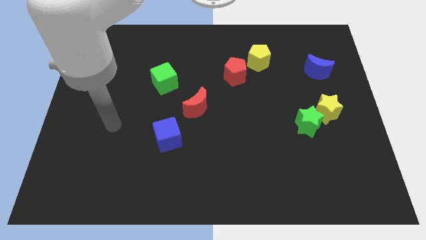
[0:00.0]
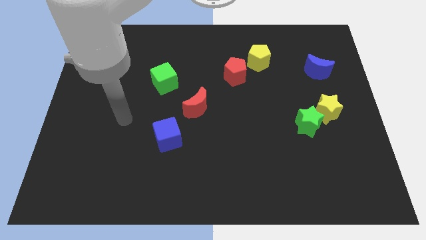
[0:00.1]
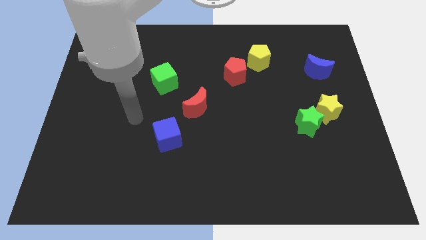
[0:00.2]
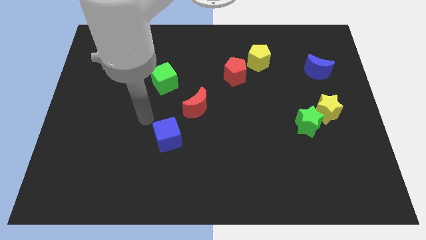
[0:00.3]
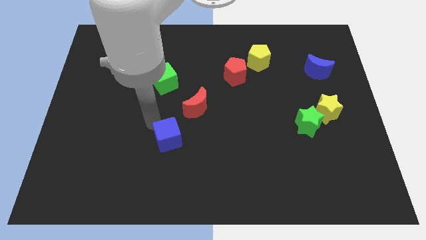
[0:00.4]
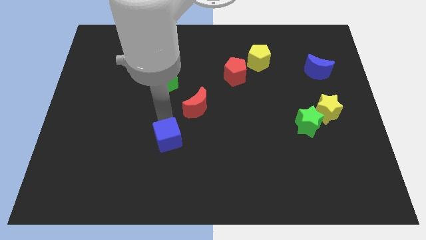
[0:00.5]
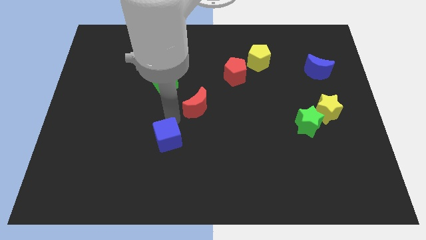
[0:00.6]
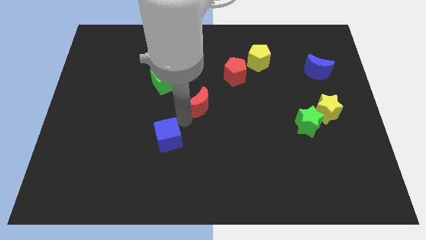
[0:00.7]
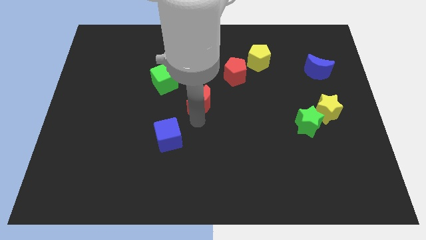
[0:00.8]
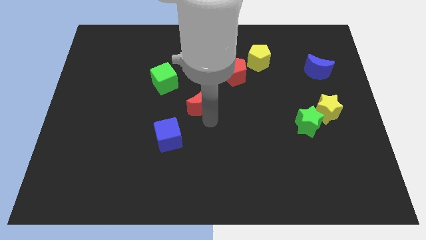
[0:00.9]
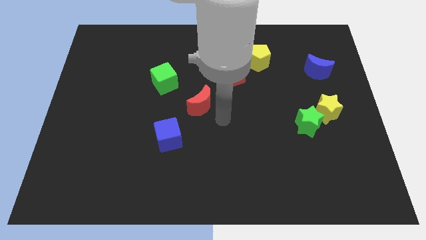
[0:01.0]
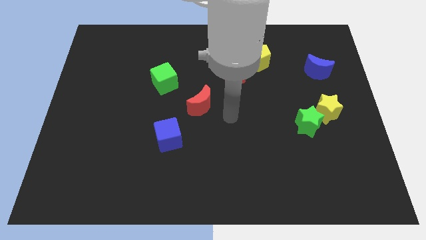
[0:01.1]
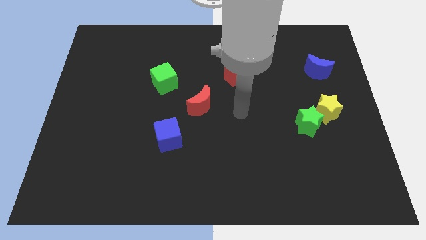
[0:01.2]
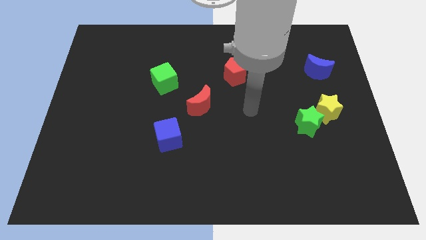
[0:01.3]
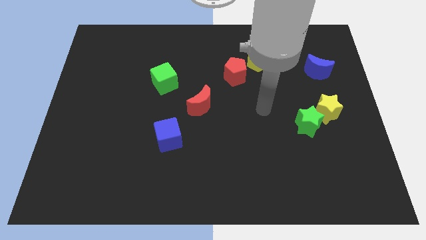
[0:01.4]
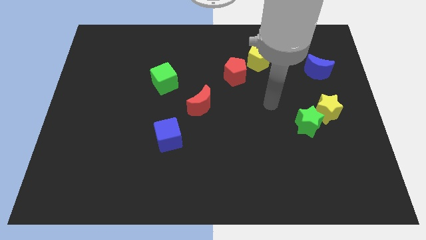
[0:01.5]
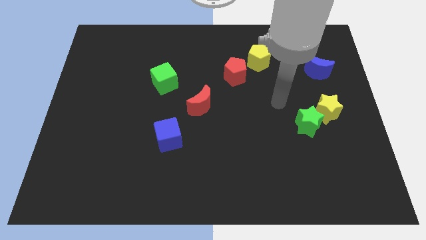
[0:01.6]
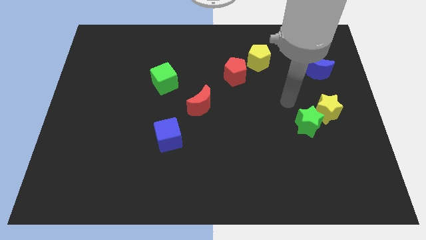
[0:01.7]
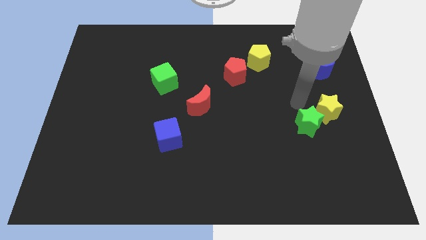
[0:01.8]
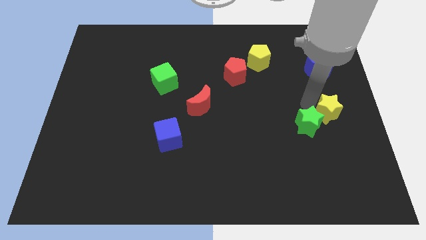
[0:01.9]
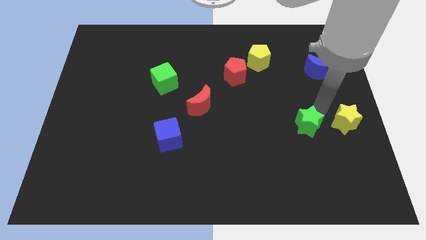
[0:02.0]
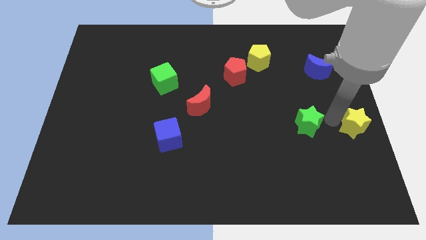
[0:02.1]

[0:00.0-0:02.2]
pull the green star apart from the yellow star

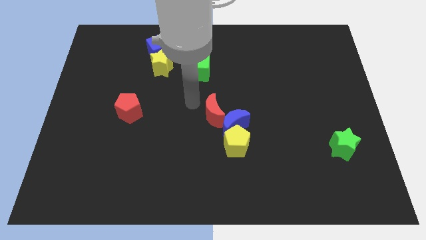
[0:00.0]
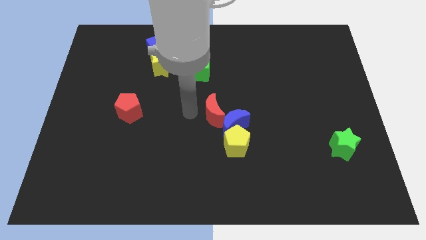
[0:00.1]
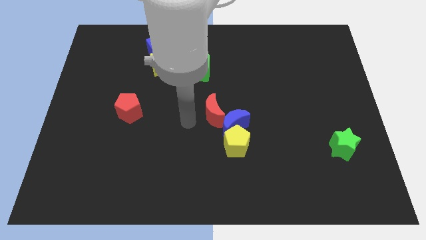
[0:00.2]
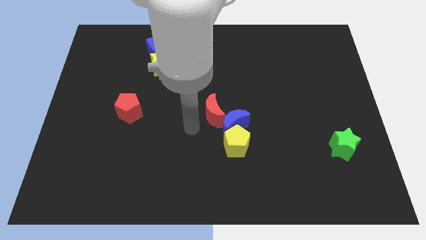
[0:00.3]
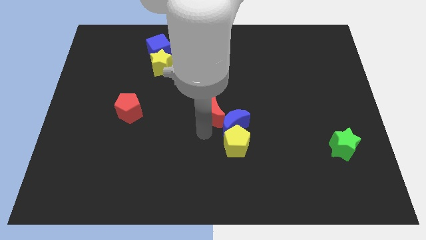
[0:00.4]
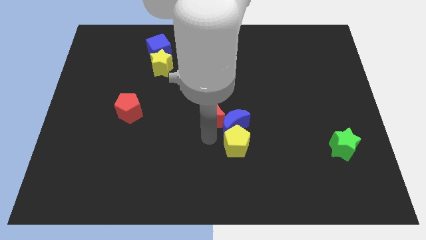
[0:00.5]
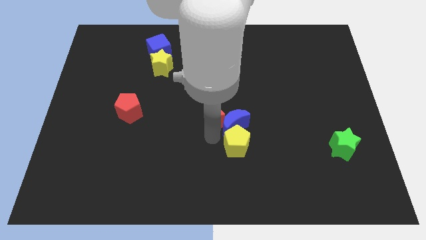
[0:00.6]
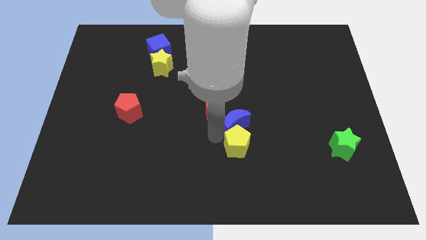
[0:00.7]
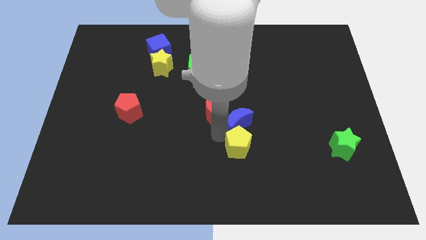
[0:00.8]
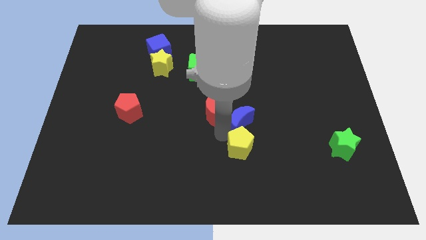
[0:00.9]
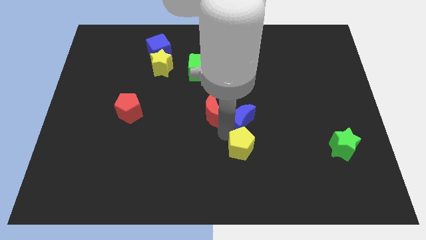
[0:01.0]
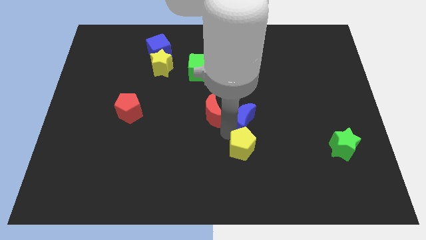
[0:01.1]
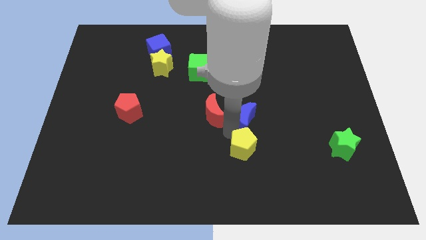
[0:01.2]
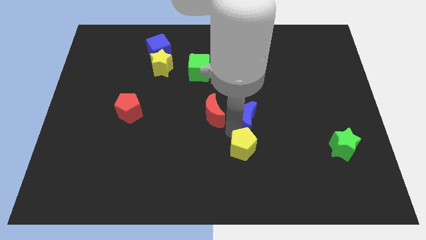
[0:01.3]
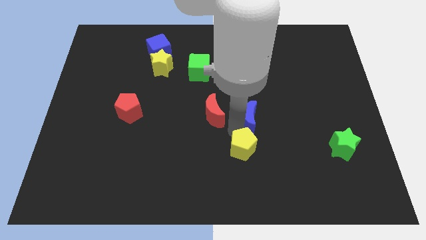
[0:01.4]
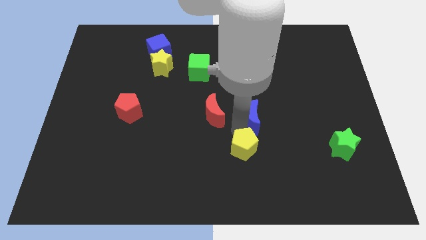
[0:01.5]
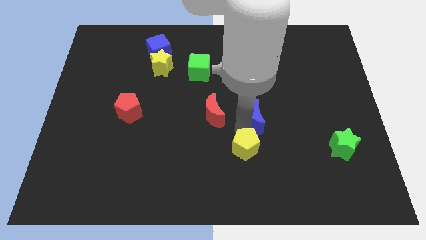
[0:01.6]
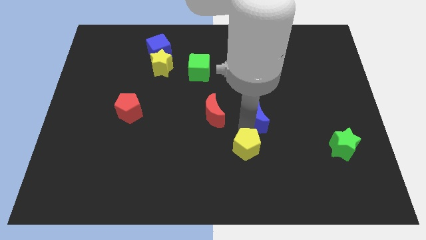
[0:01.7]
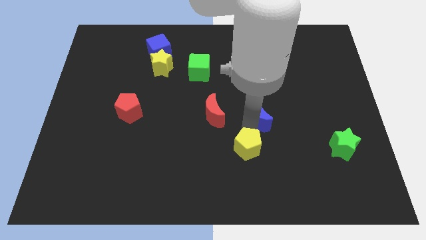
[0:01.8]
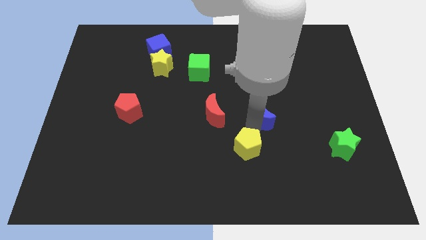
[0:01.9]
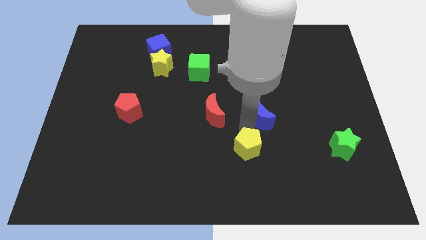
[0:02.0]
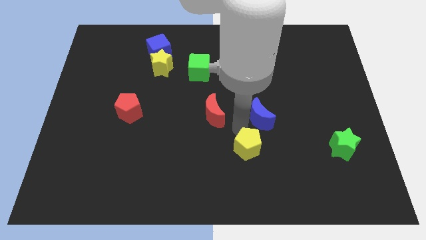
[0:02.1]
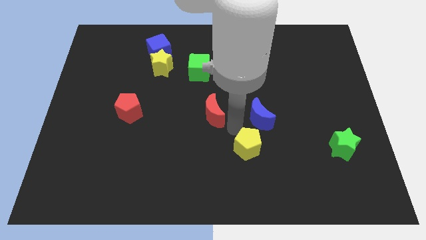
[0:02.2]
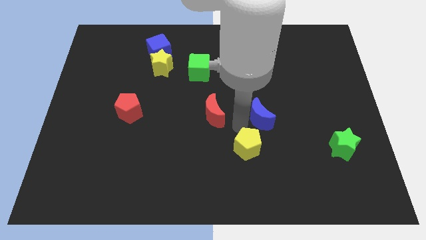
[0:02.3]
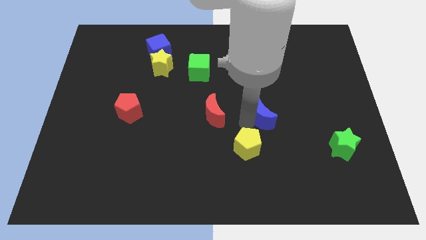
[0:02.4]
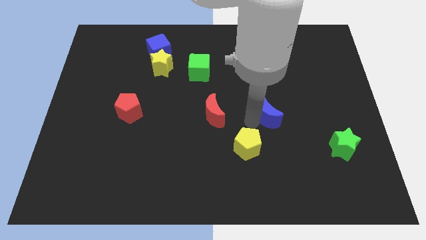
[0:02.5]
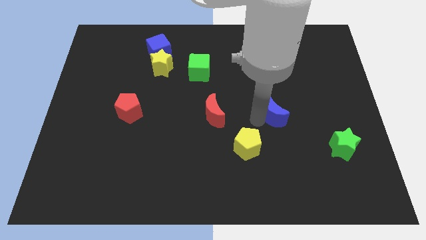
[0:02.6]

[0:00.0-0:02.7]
pull the blue moon apart from the yellow pentagon and red moon

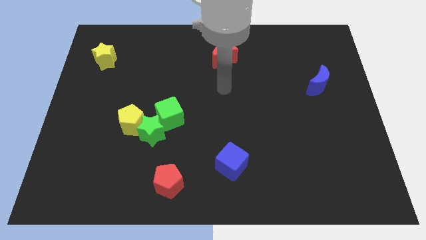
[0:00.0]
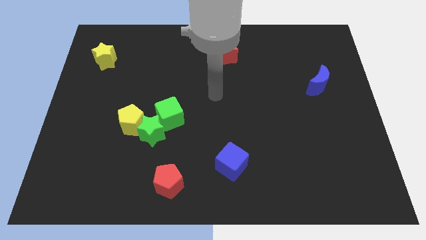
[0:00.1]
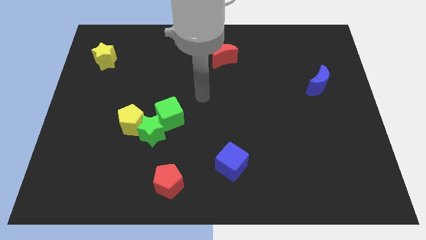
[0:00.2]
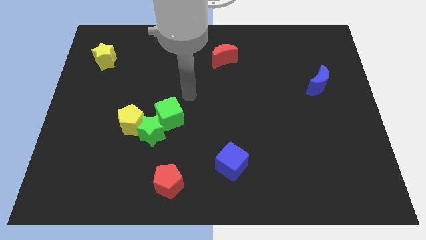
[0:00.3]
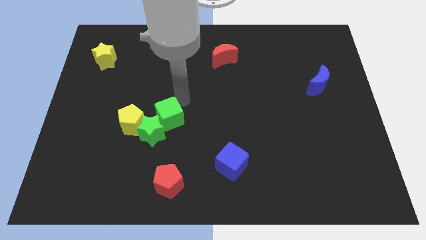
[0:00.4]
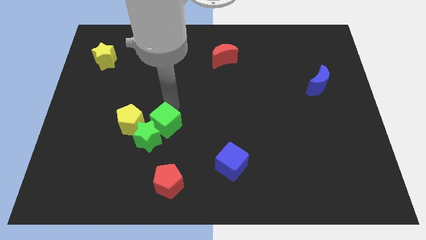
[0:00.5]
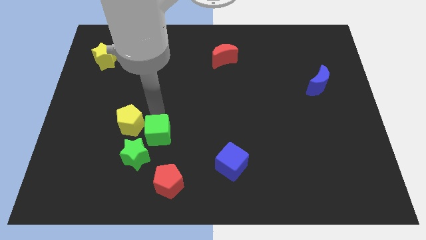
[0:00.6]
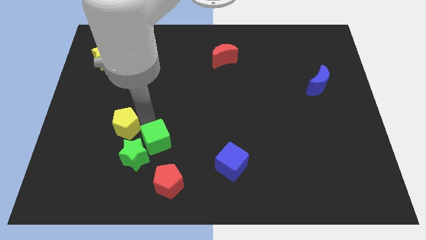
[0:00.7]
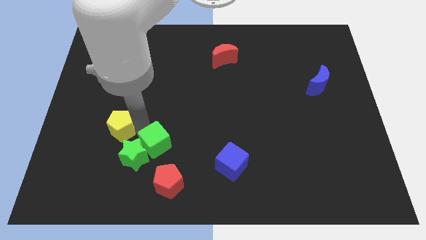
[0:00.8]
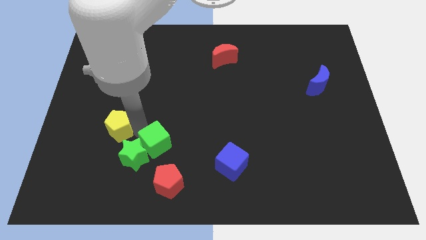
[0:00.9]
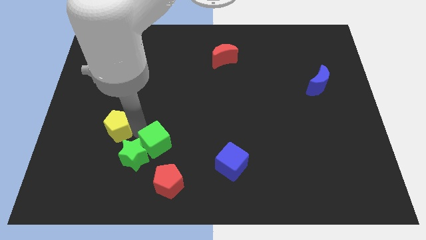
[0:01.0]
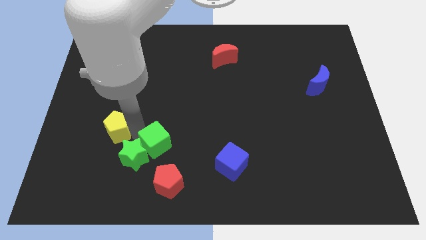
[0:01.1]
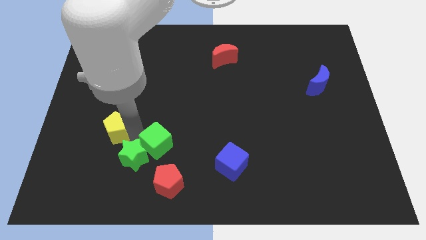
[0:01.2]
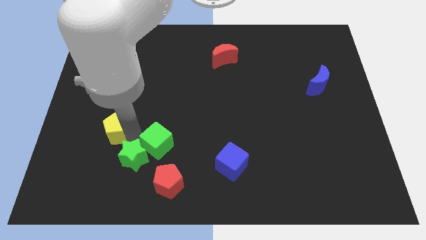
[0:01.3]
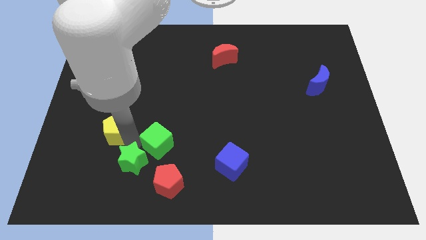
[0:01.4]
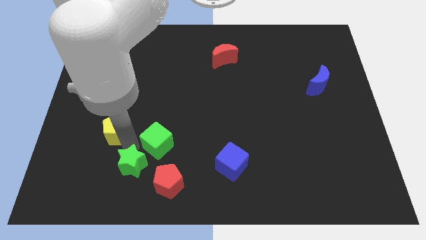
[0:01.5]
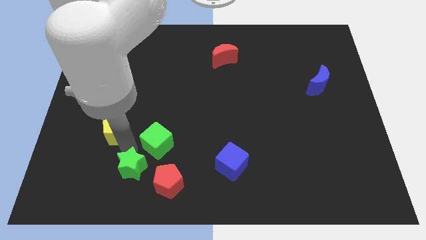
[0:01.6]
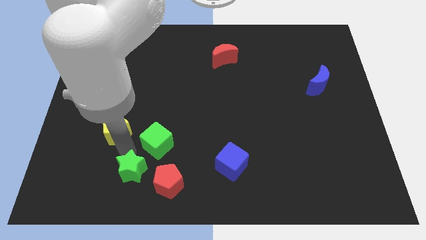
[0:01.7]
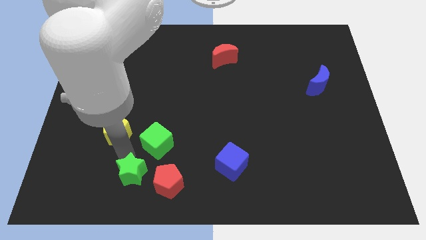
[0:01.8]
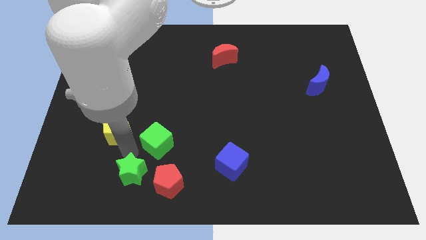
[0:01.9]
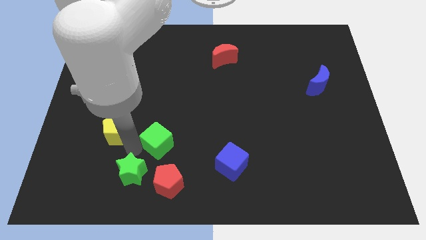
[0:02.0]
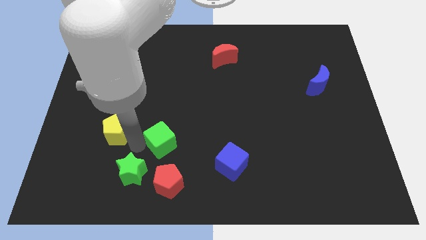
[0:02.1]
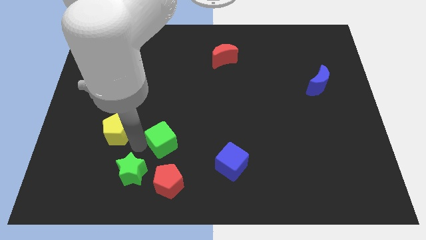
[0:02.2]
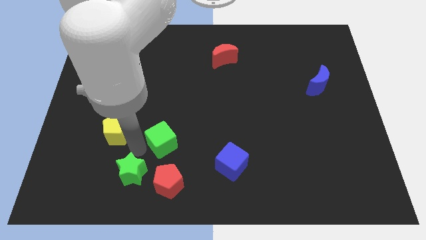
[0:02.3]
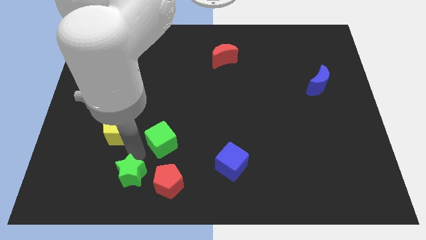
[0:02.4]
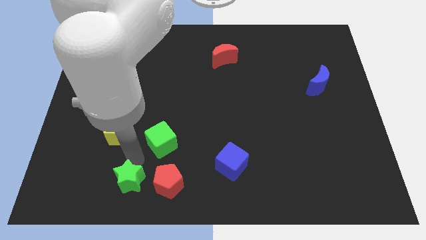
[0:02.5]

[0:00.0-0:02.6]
separate the green star from the yellow pentagon and green cube

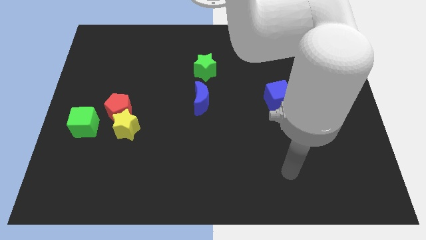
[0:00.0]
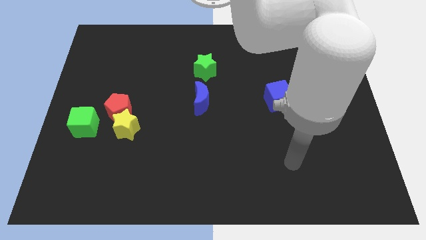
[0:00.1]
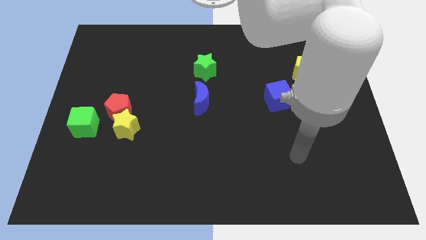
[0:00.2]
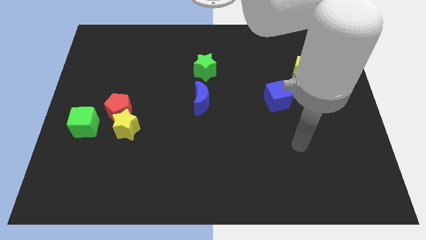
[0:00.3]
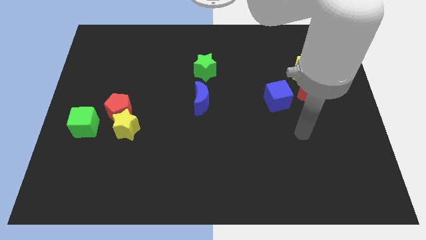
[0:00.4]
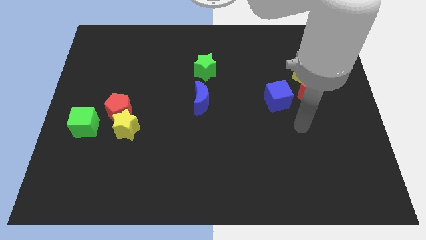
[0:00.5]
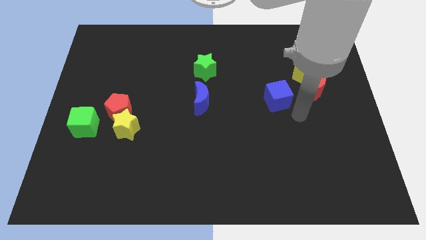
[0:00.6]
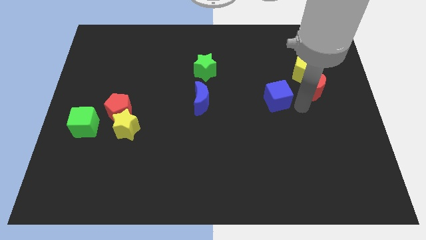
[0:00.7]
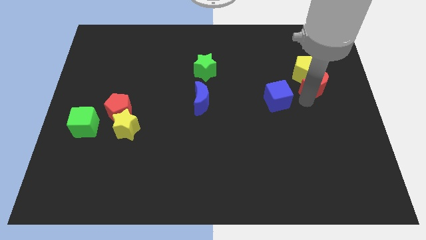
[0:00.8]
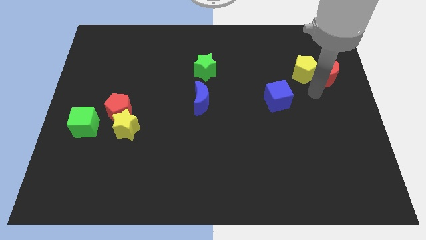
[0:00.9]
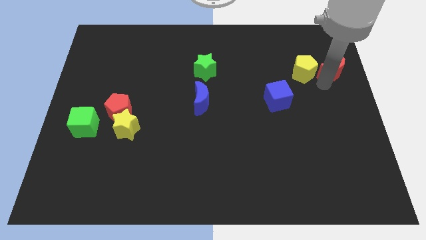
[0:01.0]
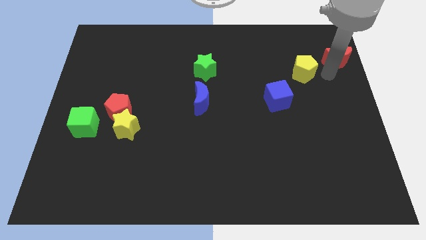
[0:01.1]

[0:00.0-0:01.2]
move the yellow pentagon away from the red moon

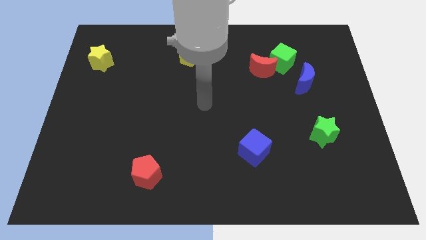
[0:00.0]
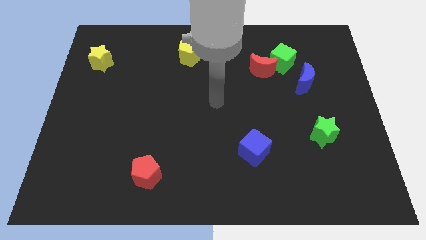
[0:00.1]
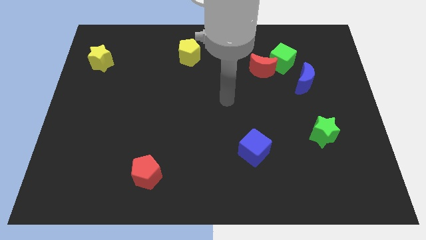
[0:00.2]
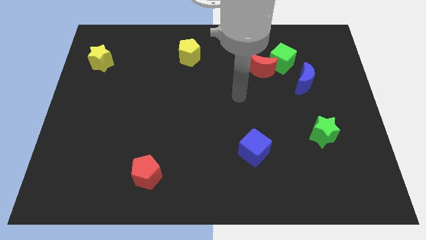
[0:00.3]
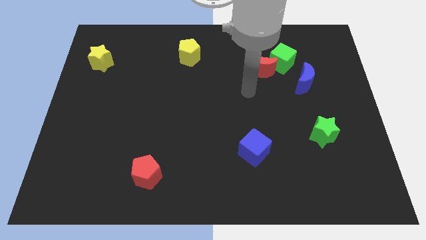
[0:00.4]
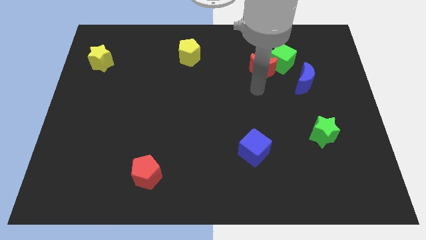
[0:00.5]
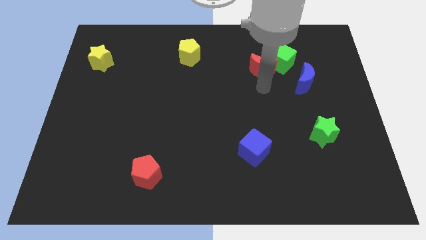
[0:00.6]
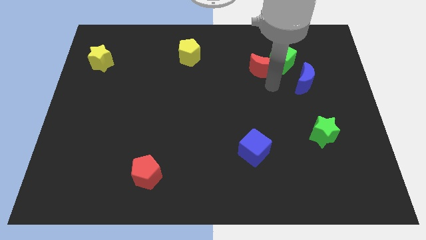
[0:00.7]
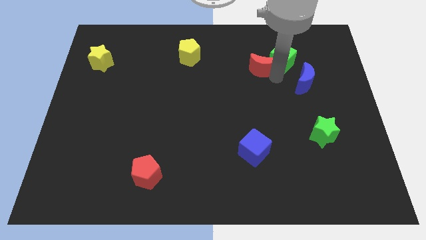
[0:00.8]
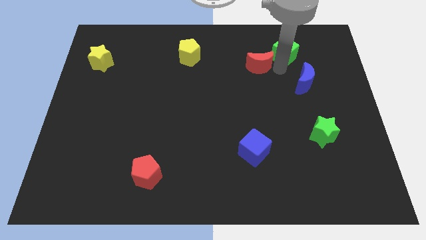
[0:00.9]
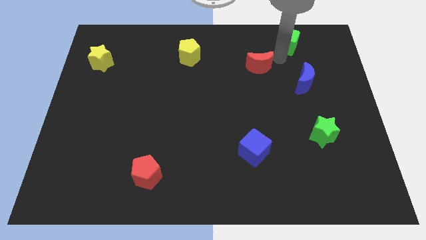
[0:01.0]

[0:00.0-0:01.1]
separate the red moon from the green cube
